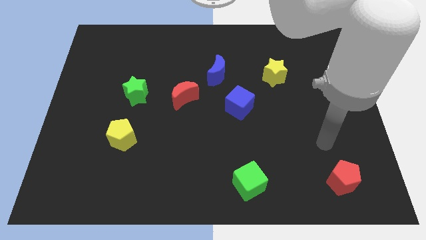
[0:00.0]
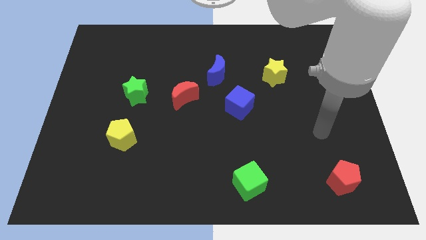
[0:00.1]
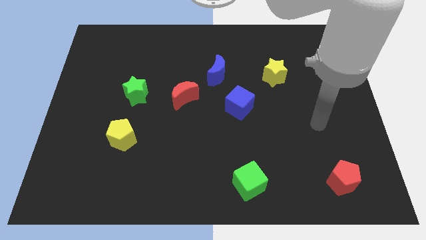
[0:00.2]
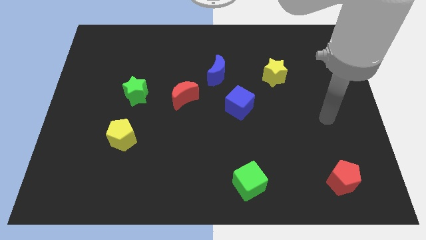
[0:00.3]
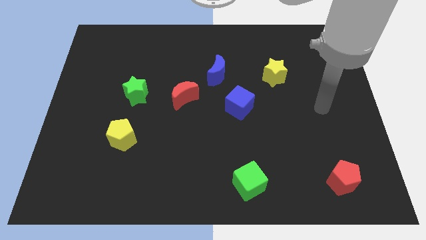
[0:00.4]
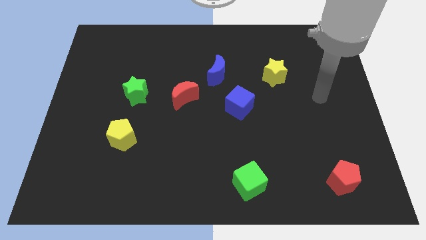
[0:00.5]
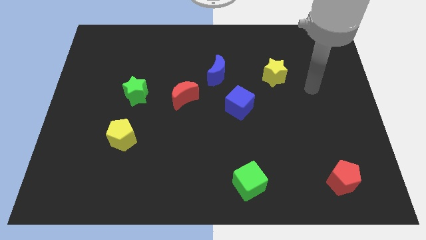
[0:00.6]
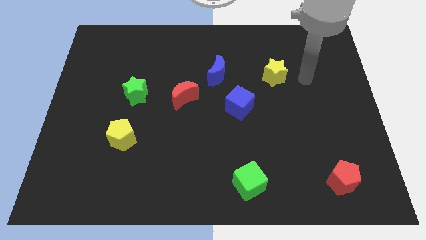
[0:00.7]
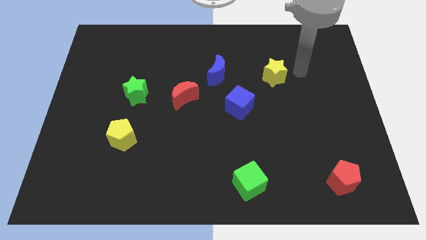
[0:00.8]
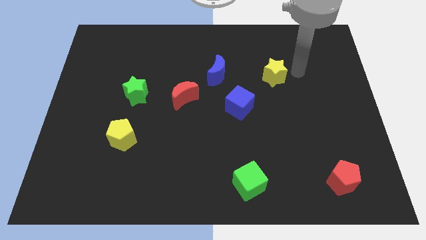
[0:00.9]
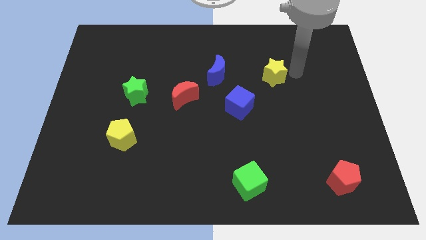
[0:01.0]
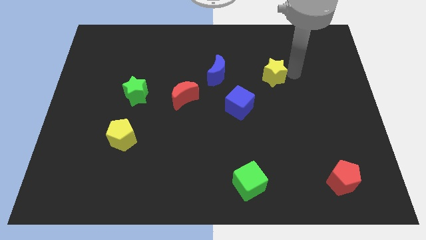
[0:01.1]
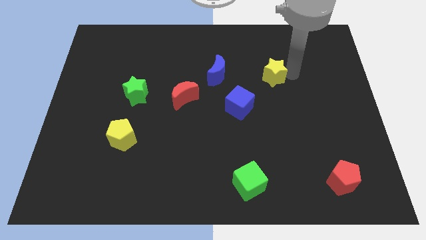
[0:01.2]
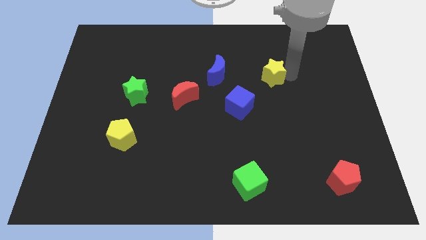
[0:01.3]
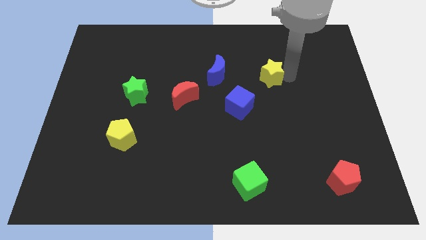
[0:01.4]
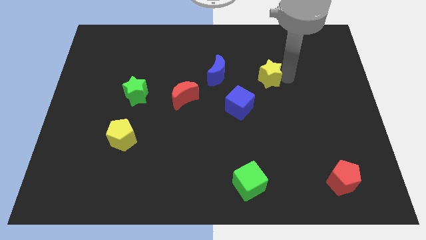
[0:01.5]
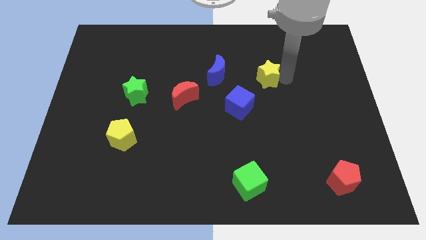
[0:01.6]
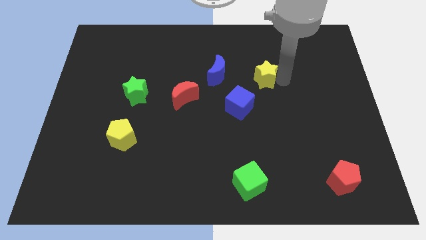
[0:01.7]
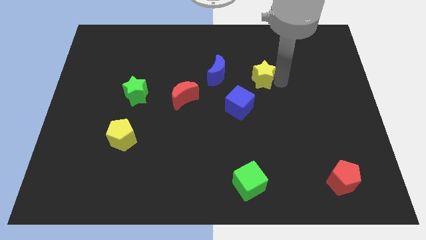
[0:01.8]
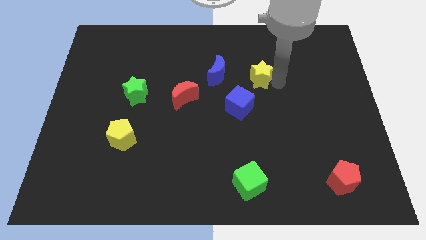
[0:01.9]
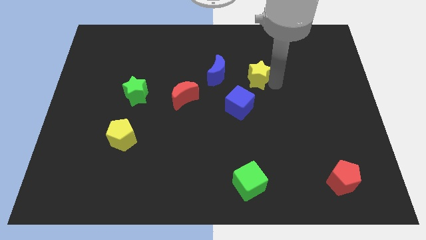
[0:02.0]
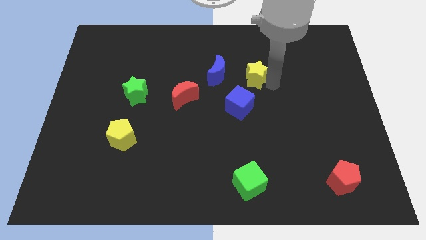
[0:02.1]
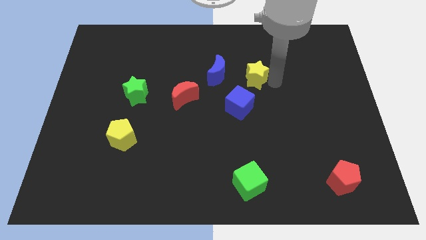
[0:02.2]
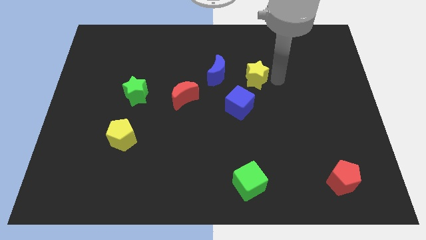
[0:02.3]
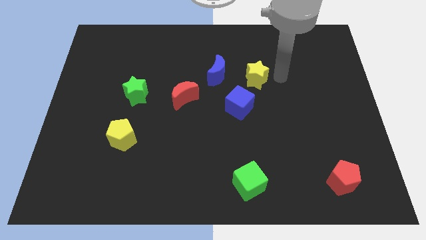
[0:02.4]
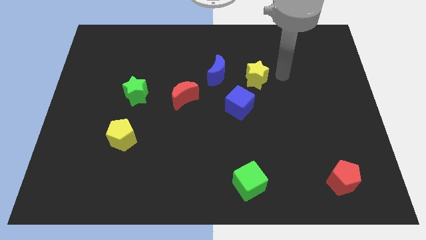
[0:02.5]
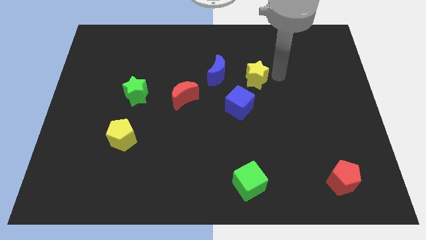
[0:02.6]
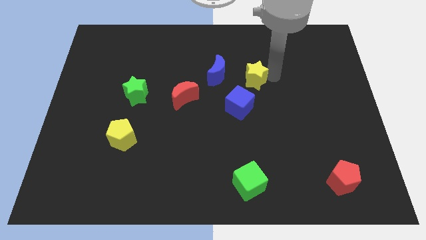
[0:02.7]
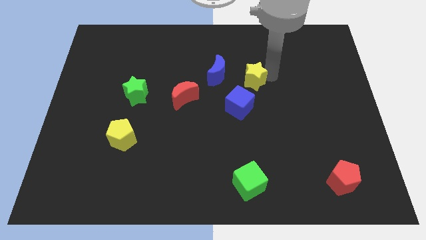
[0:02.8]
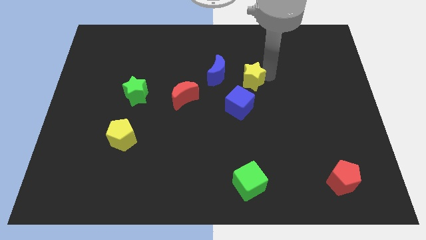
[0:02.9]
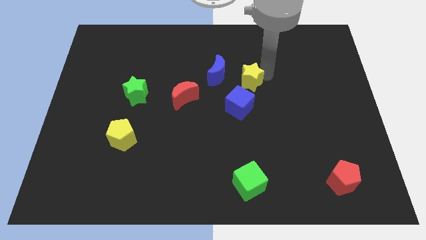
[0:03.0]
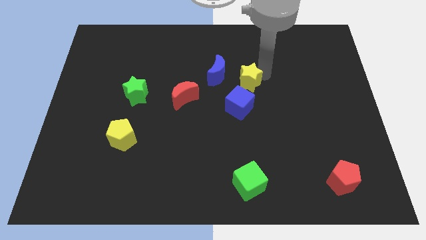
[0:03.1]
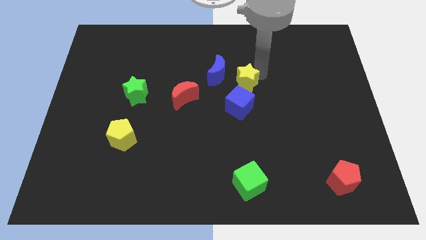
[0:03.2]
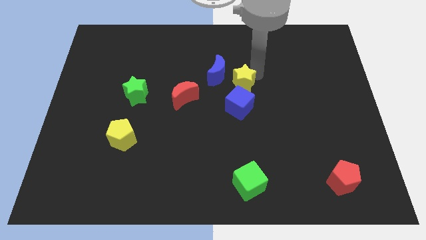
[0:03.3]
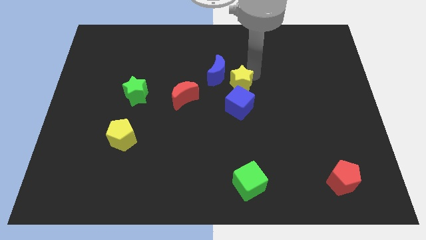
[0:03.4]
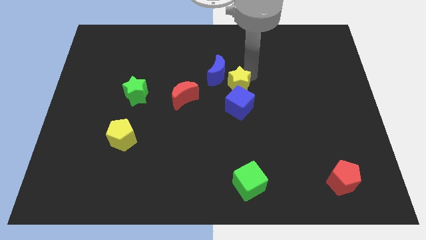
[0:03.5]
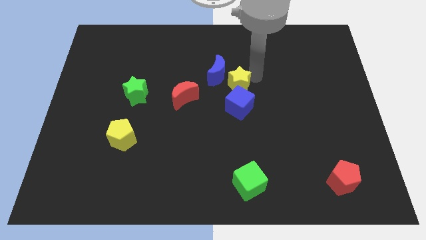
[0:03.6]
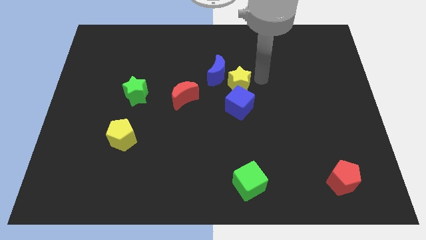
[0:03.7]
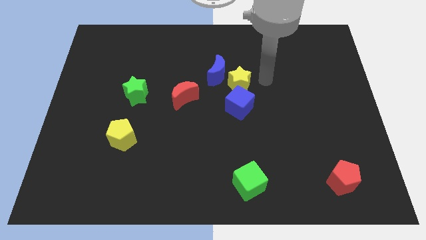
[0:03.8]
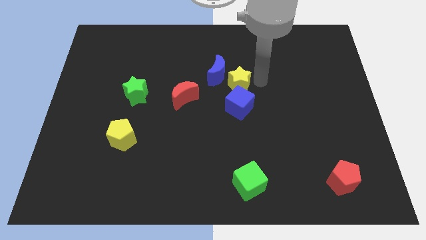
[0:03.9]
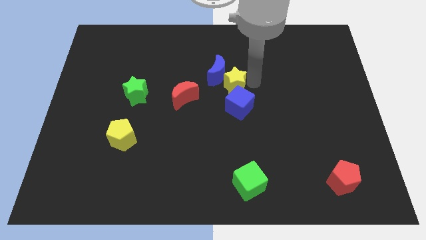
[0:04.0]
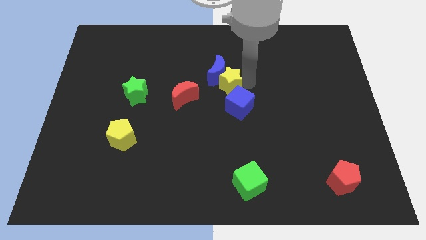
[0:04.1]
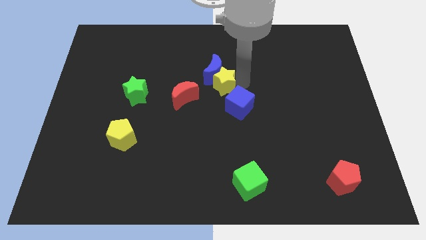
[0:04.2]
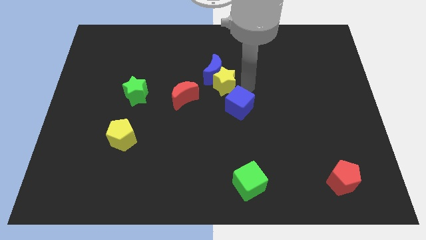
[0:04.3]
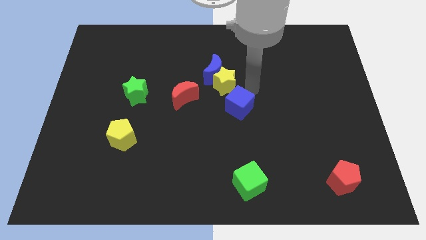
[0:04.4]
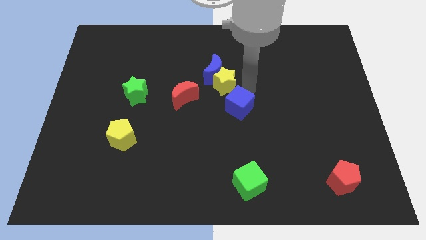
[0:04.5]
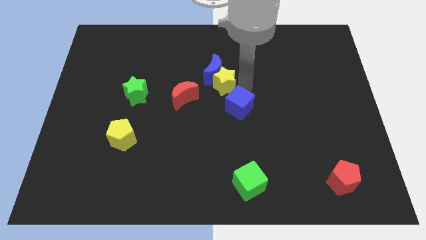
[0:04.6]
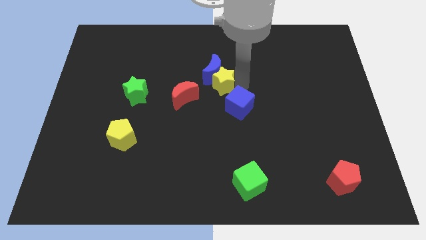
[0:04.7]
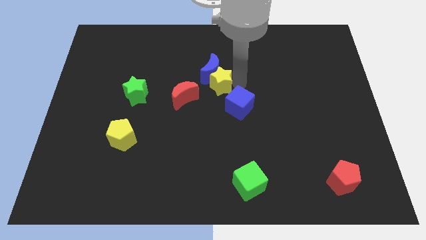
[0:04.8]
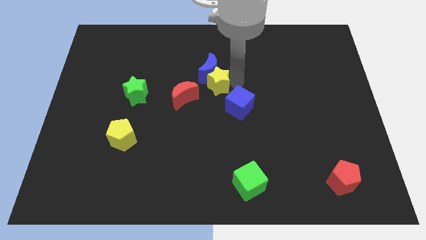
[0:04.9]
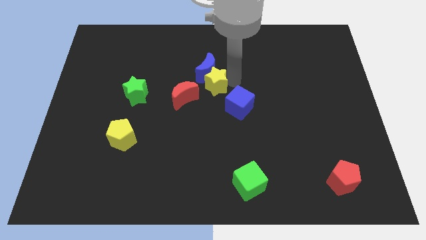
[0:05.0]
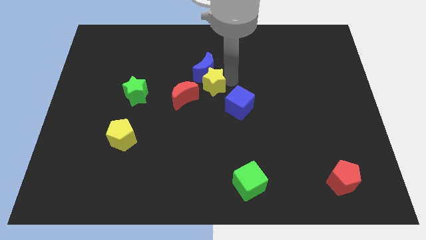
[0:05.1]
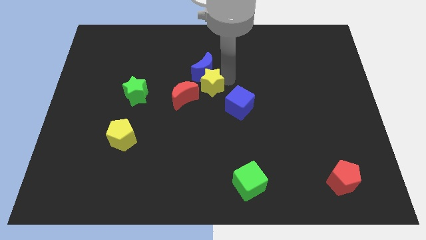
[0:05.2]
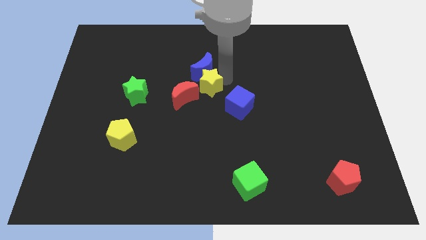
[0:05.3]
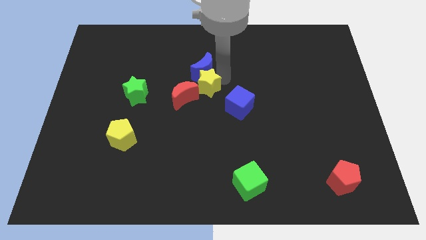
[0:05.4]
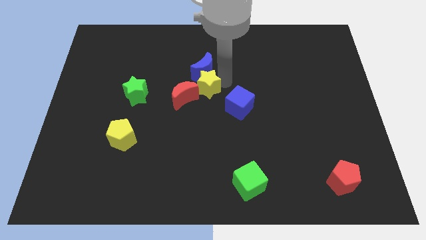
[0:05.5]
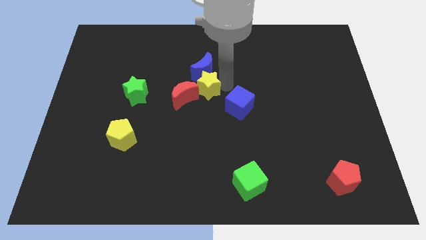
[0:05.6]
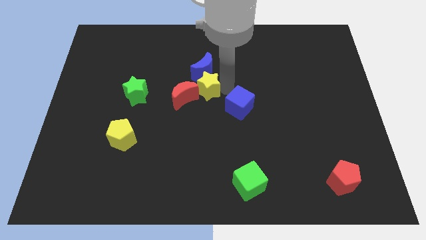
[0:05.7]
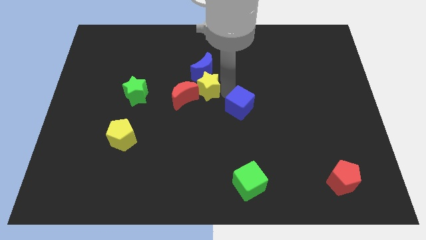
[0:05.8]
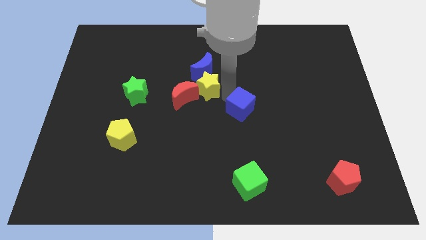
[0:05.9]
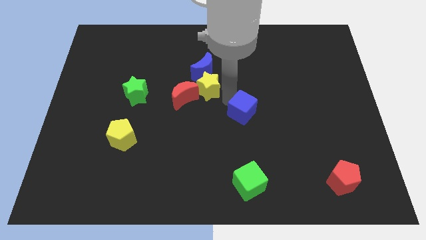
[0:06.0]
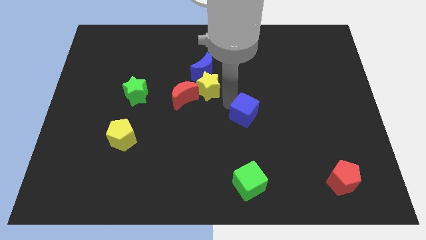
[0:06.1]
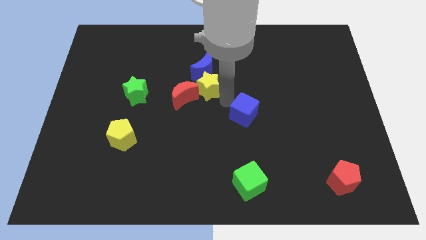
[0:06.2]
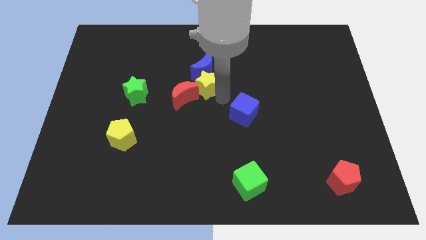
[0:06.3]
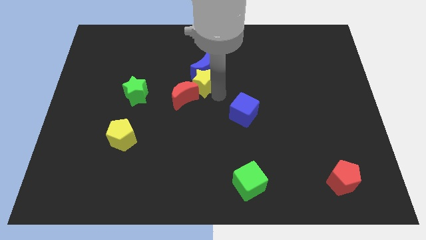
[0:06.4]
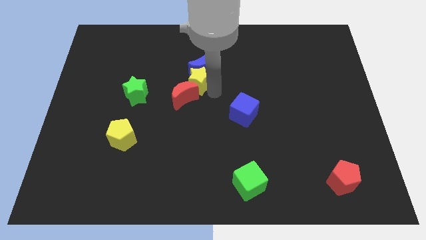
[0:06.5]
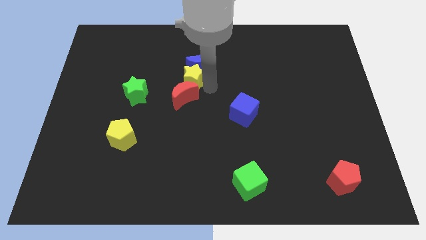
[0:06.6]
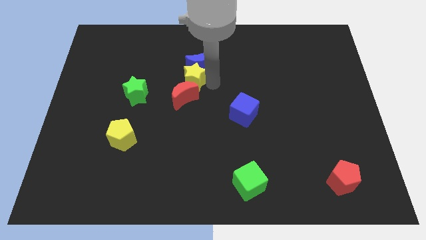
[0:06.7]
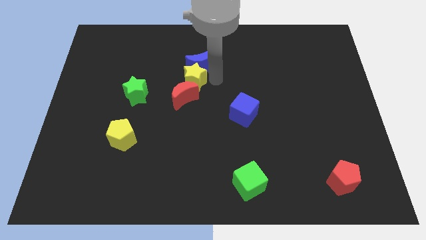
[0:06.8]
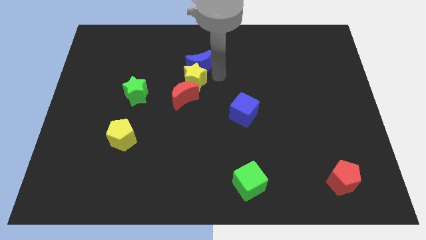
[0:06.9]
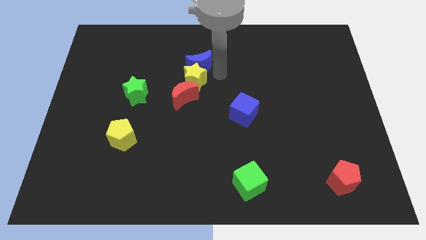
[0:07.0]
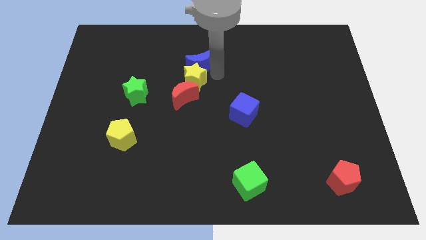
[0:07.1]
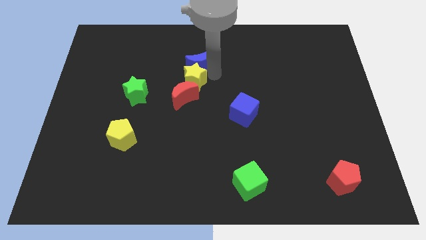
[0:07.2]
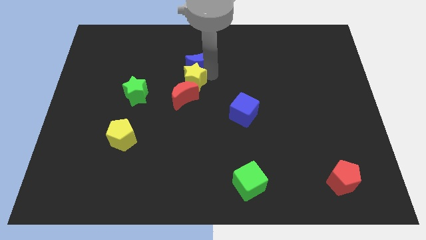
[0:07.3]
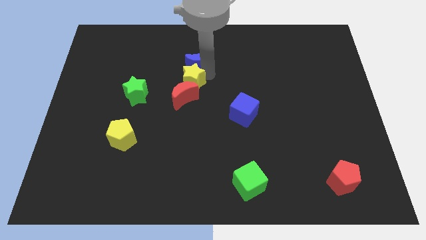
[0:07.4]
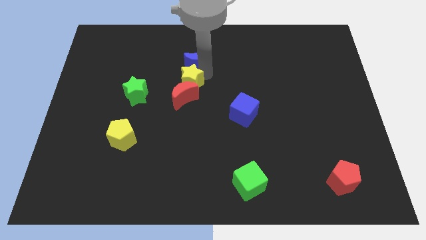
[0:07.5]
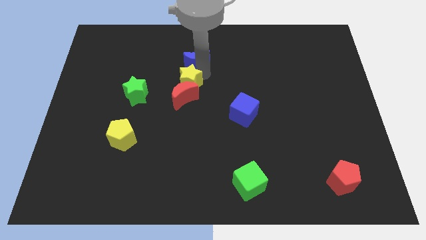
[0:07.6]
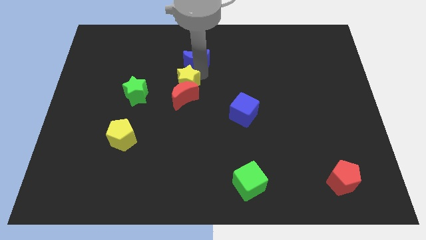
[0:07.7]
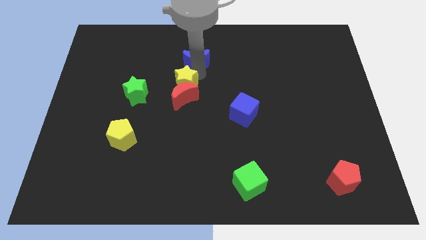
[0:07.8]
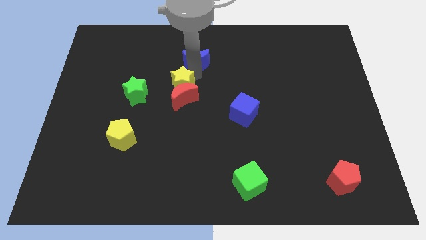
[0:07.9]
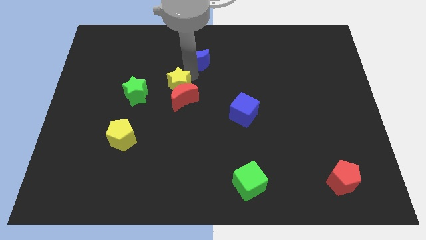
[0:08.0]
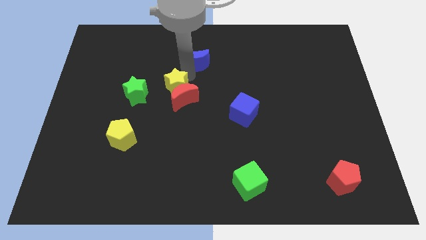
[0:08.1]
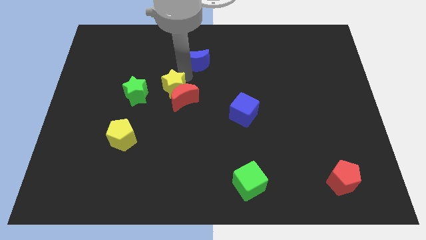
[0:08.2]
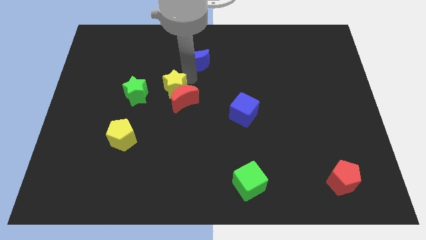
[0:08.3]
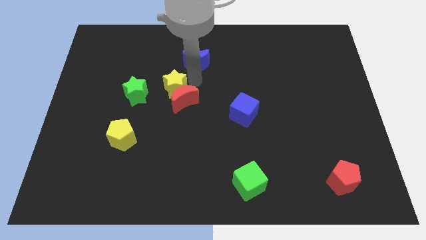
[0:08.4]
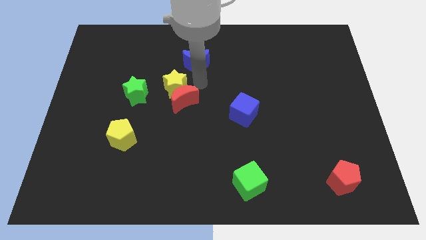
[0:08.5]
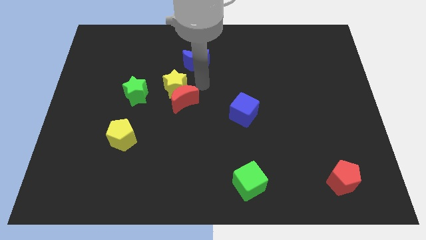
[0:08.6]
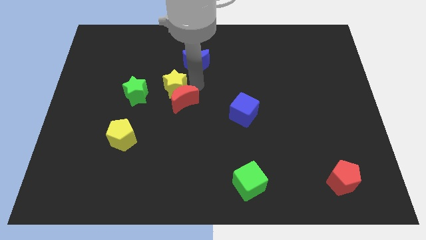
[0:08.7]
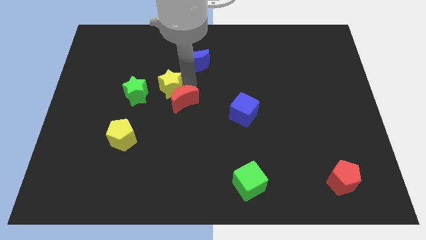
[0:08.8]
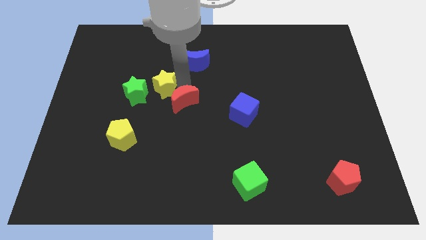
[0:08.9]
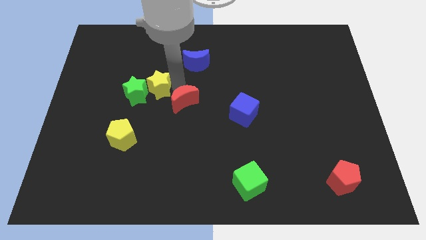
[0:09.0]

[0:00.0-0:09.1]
push the yellow star next to the green star
